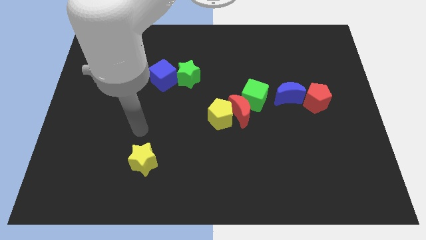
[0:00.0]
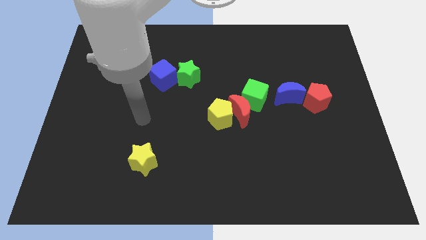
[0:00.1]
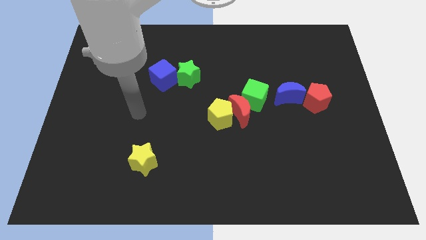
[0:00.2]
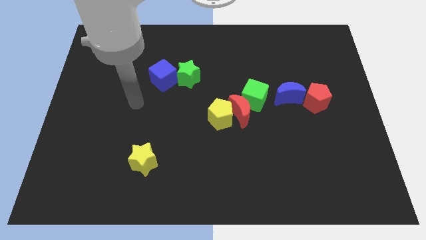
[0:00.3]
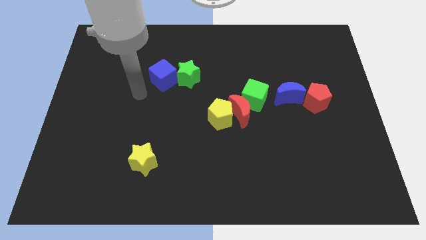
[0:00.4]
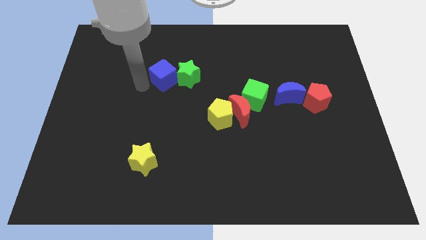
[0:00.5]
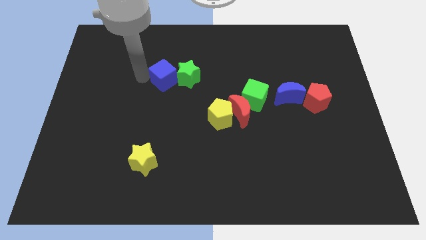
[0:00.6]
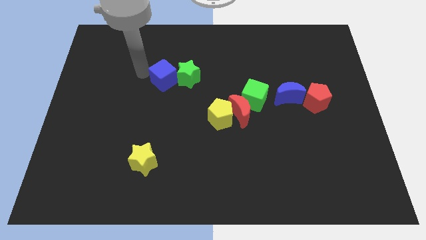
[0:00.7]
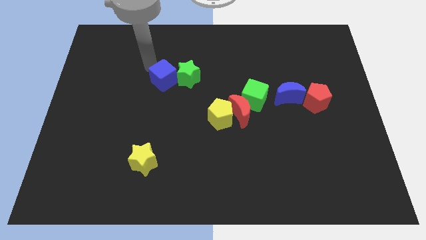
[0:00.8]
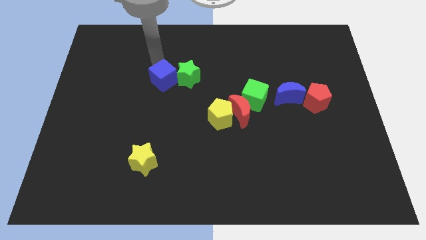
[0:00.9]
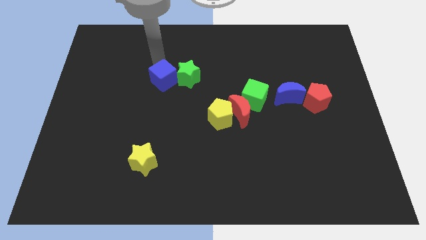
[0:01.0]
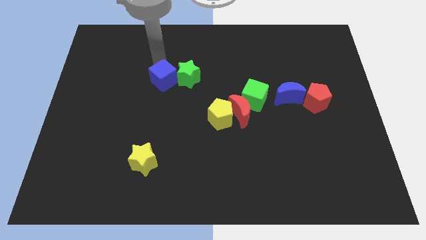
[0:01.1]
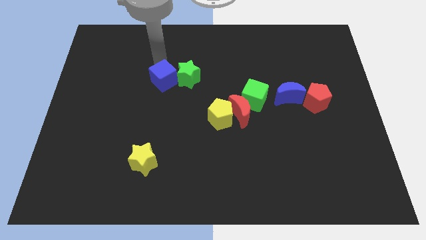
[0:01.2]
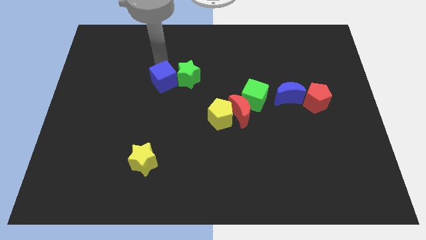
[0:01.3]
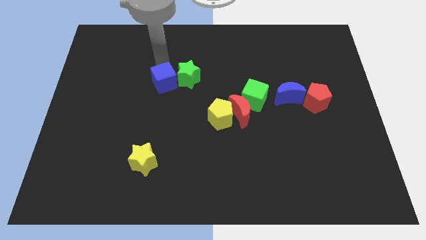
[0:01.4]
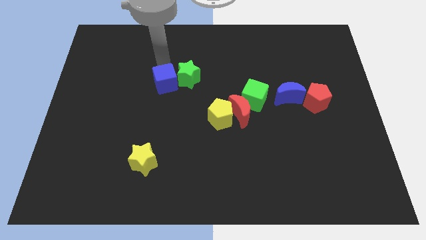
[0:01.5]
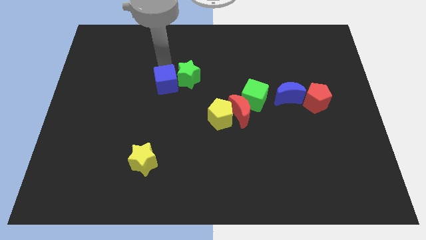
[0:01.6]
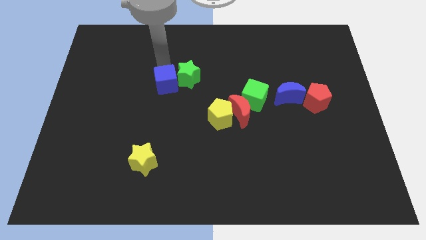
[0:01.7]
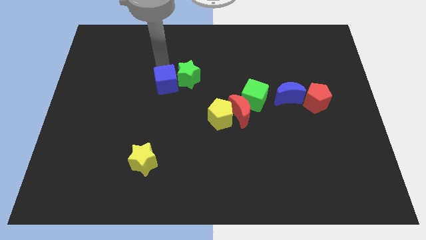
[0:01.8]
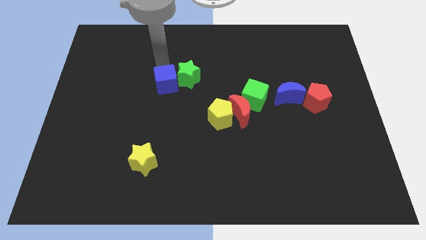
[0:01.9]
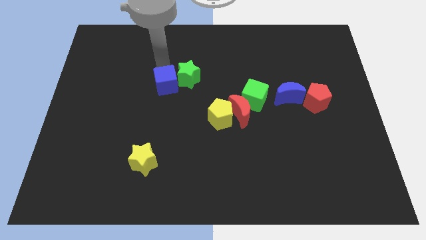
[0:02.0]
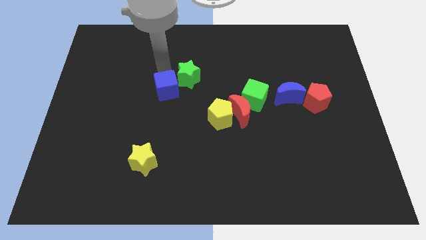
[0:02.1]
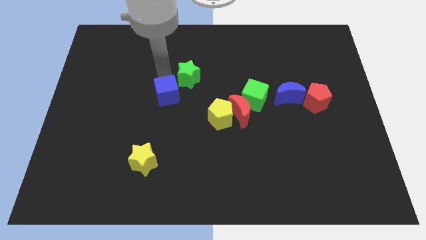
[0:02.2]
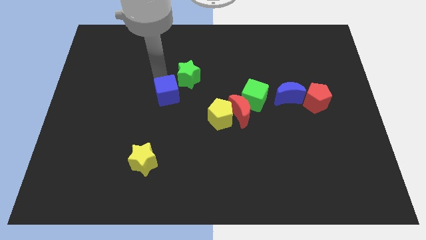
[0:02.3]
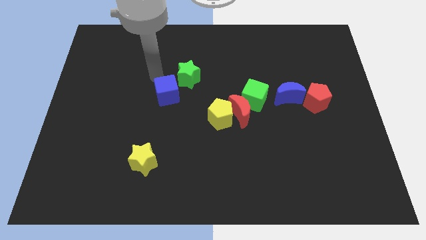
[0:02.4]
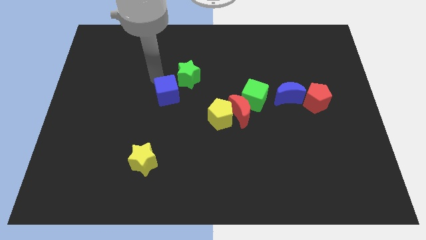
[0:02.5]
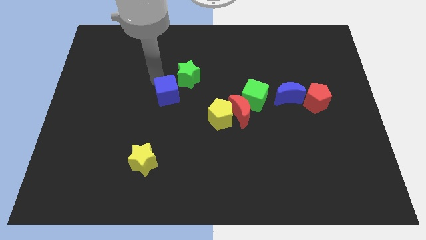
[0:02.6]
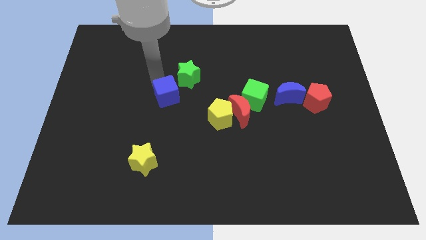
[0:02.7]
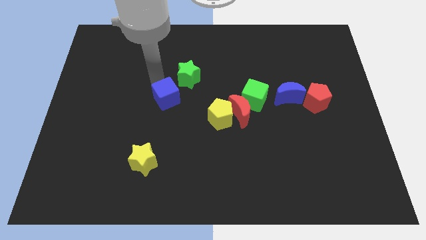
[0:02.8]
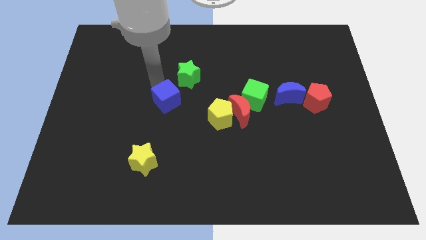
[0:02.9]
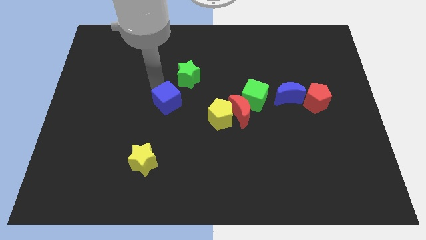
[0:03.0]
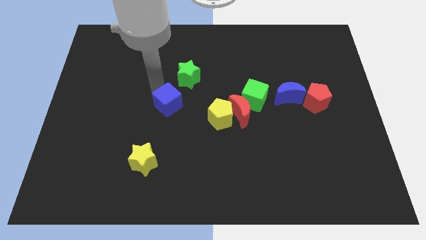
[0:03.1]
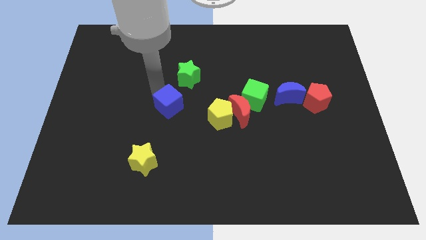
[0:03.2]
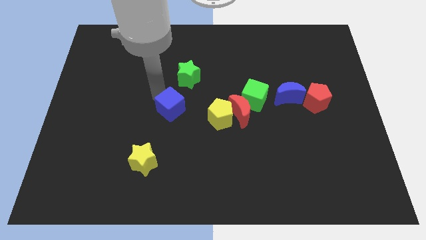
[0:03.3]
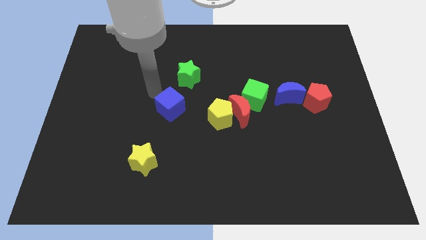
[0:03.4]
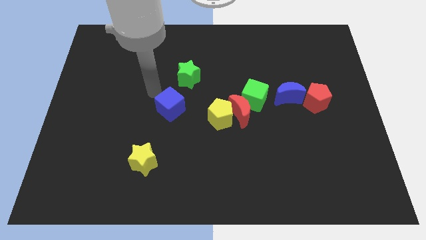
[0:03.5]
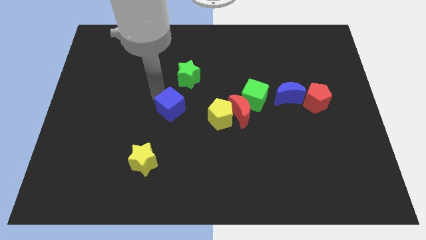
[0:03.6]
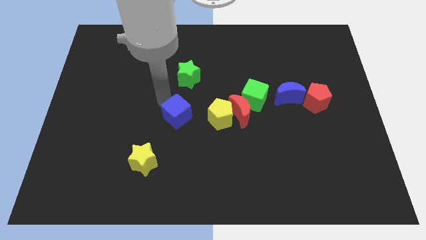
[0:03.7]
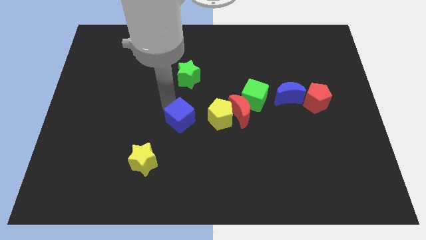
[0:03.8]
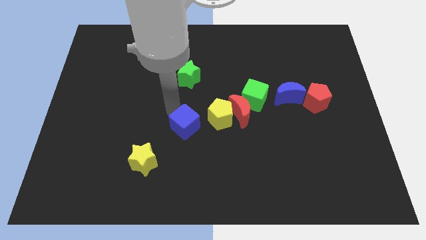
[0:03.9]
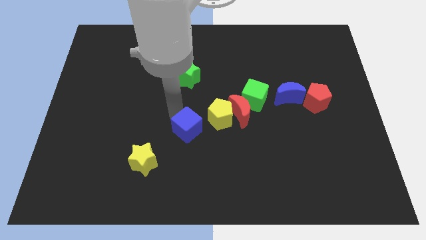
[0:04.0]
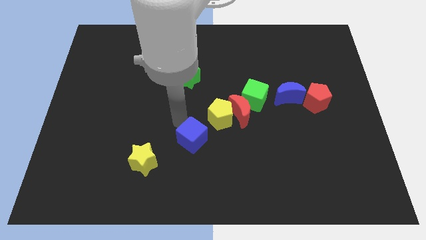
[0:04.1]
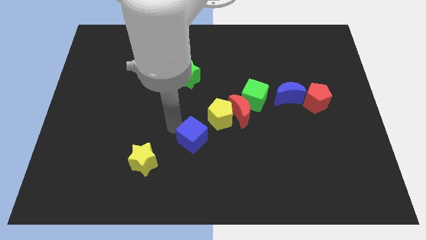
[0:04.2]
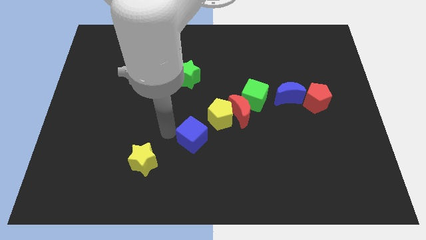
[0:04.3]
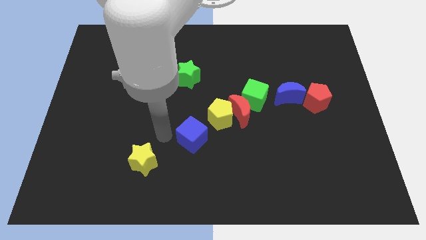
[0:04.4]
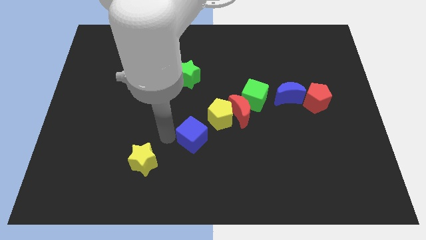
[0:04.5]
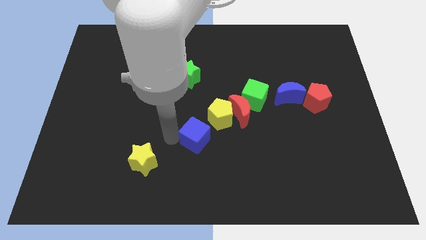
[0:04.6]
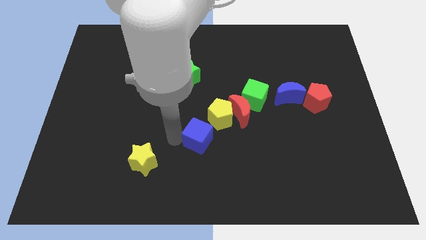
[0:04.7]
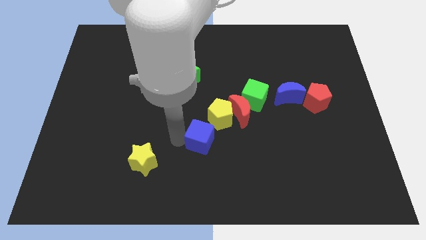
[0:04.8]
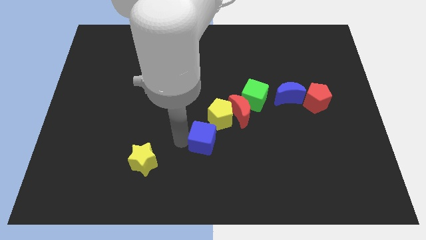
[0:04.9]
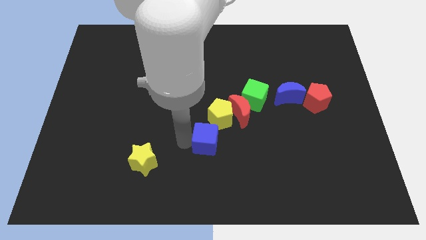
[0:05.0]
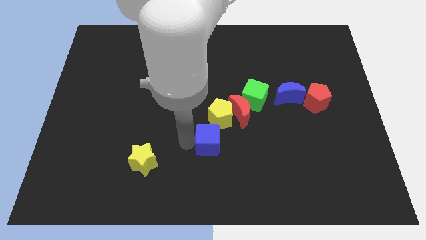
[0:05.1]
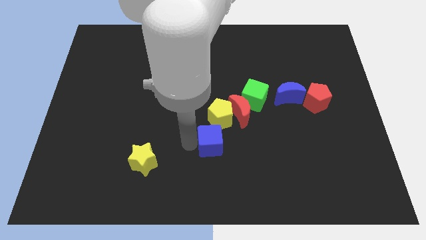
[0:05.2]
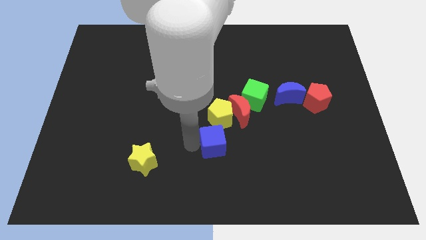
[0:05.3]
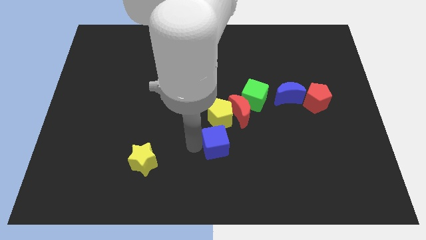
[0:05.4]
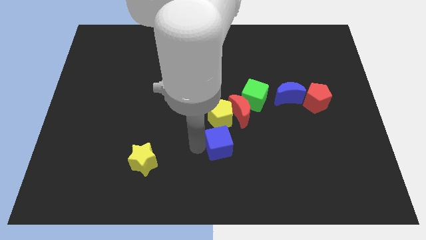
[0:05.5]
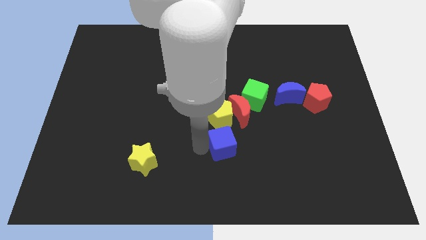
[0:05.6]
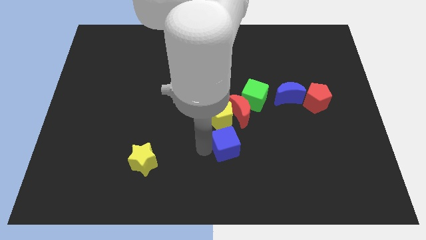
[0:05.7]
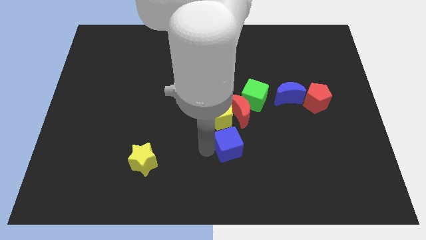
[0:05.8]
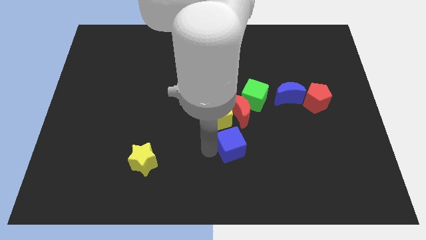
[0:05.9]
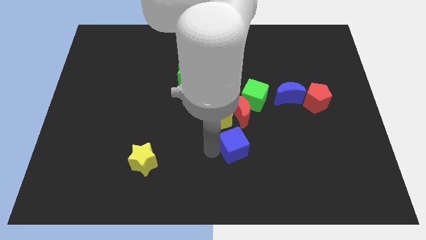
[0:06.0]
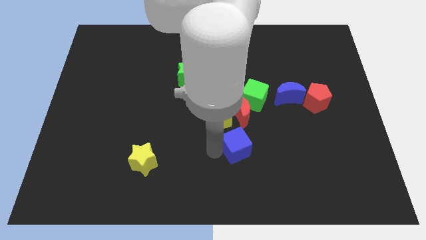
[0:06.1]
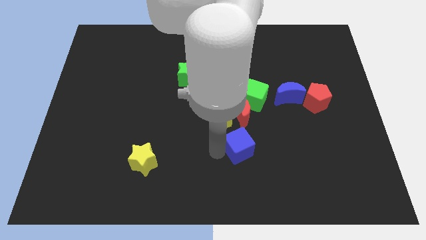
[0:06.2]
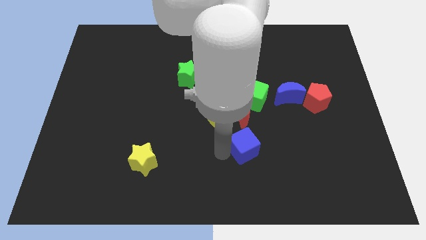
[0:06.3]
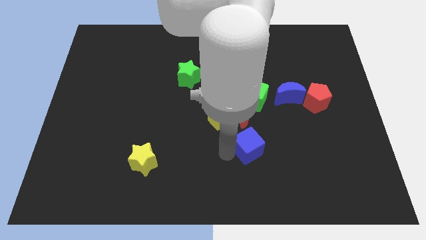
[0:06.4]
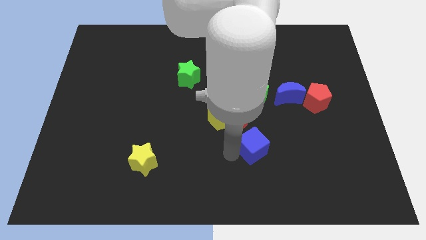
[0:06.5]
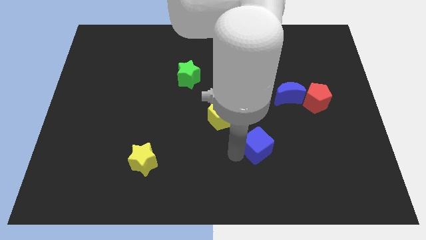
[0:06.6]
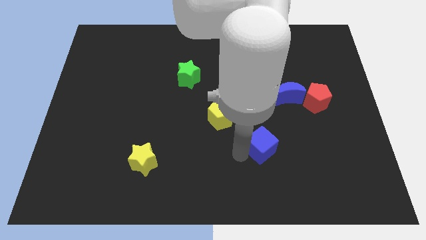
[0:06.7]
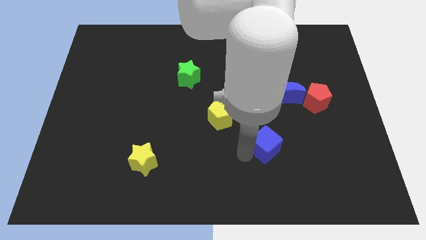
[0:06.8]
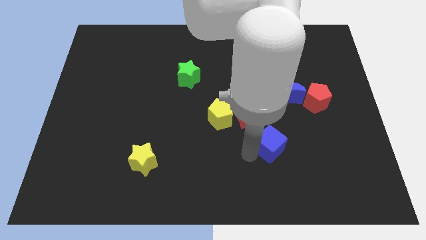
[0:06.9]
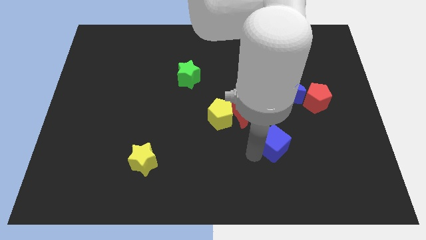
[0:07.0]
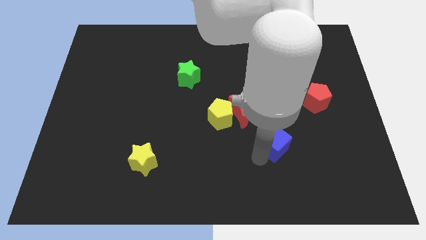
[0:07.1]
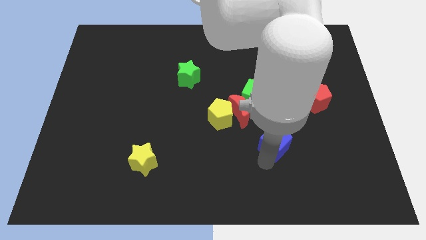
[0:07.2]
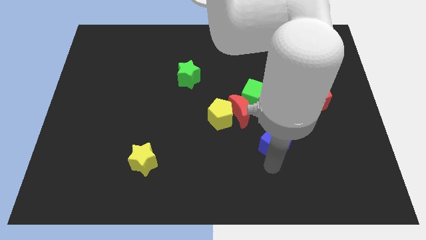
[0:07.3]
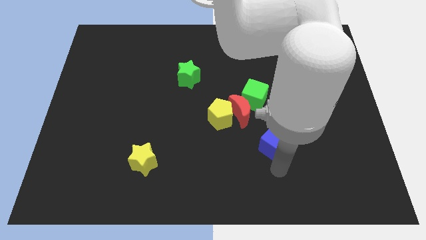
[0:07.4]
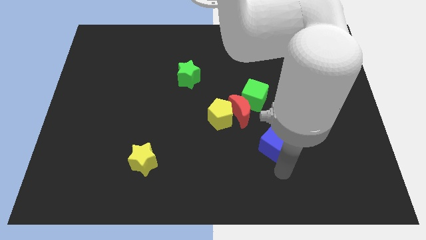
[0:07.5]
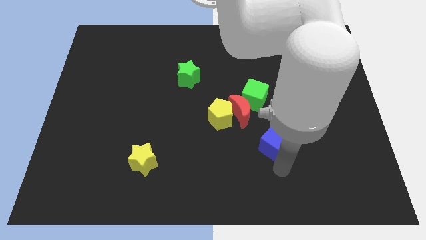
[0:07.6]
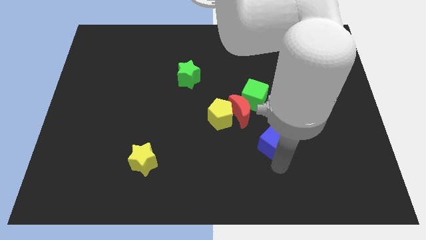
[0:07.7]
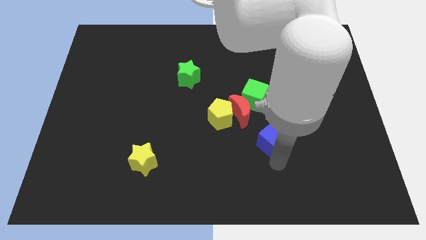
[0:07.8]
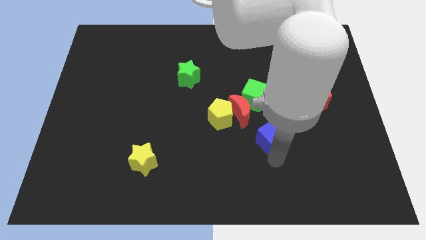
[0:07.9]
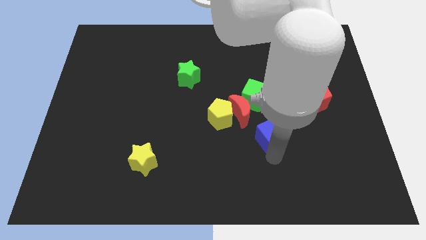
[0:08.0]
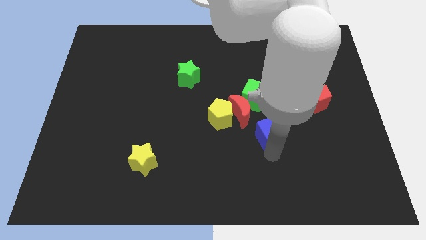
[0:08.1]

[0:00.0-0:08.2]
slide the blue cube to the right of the yellow pentagon
